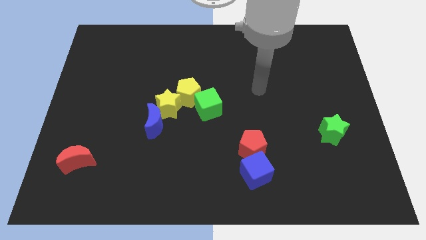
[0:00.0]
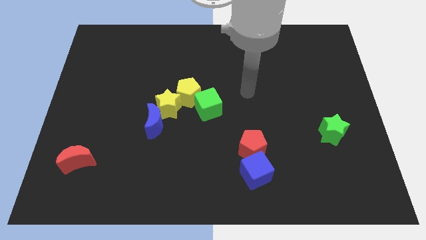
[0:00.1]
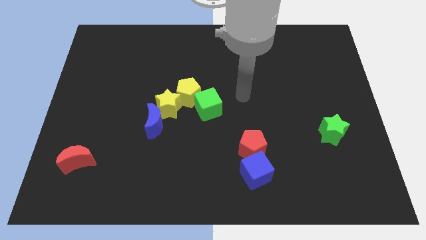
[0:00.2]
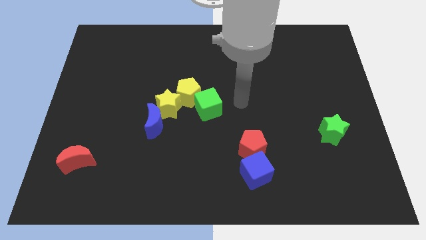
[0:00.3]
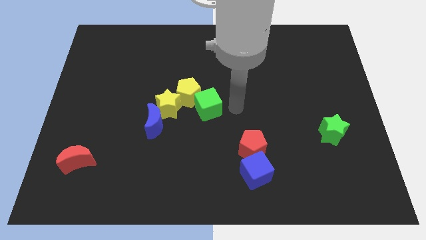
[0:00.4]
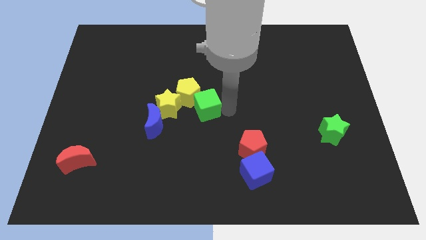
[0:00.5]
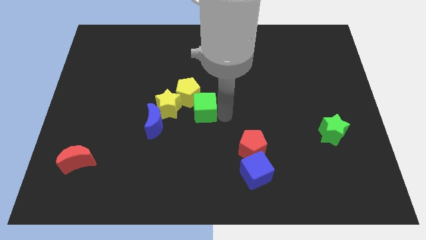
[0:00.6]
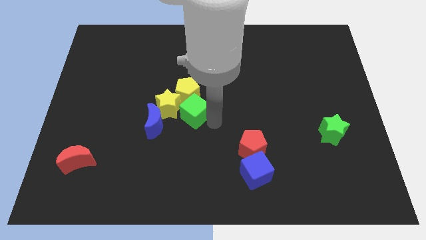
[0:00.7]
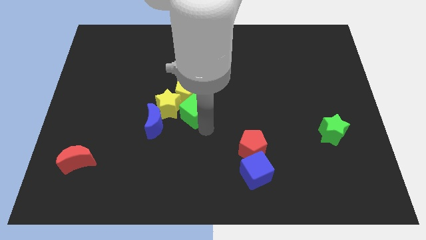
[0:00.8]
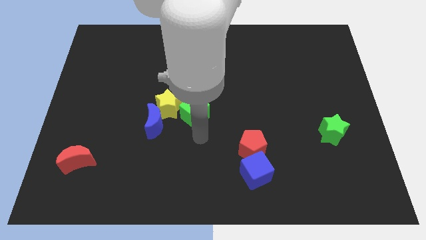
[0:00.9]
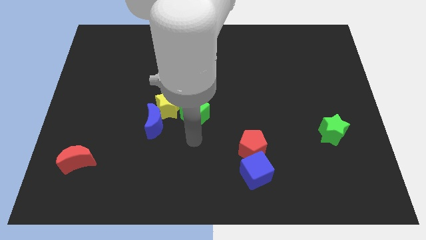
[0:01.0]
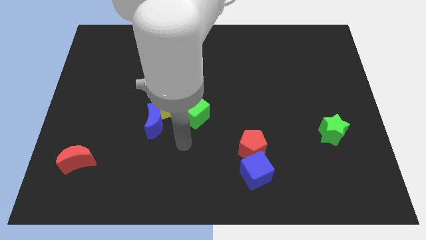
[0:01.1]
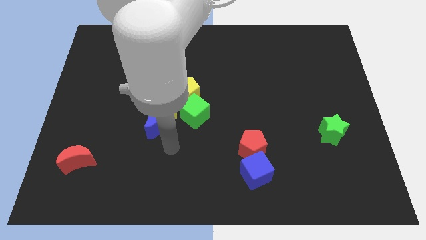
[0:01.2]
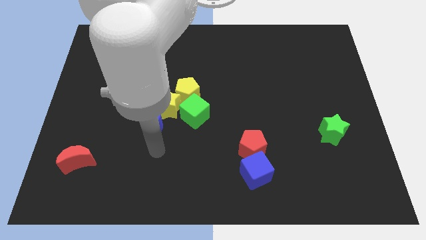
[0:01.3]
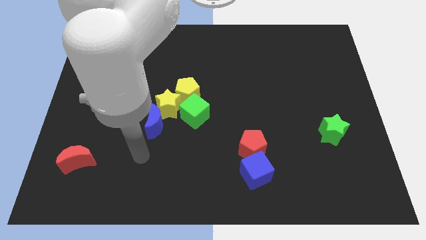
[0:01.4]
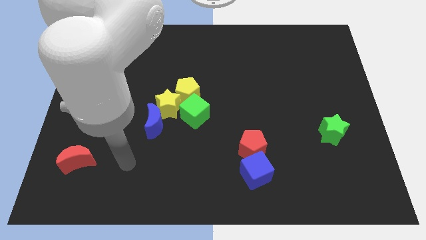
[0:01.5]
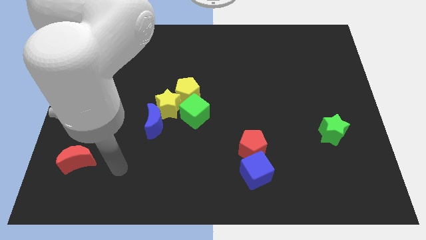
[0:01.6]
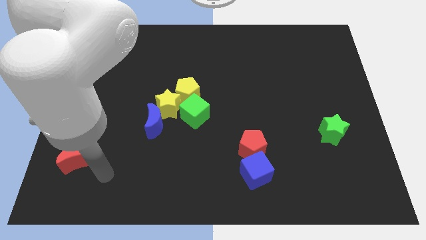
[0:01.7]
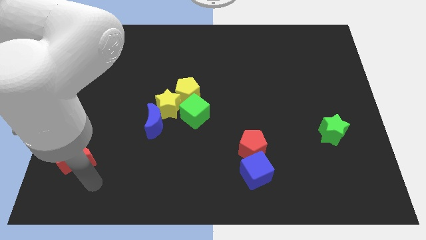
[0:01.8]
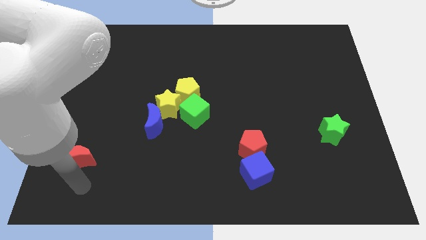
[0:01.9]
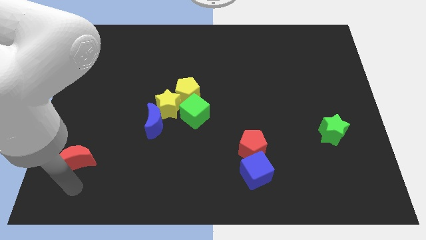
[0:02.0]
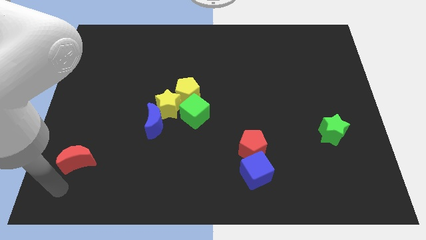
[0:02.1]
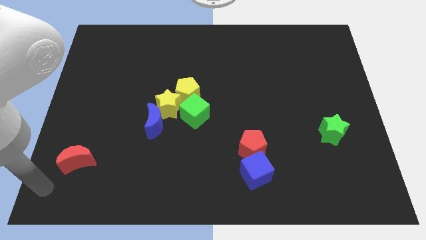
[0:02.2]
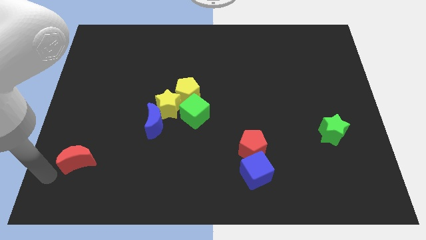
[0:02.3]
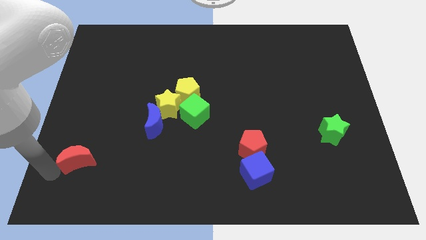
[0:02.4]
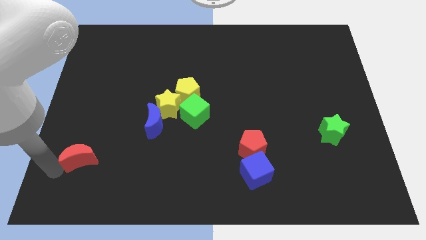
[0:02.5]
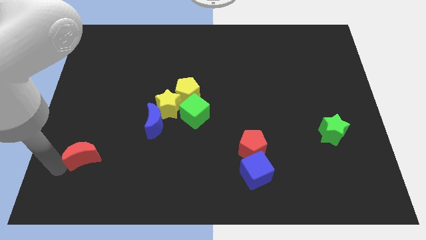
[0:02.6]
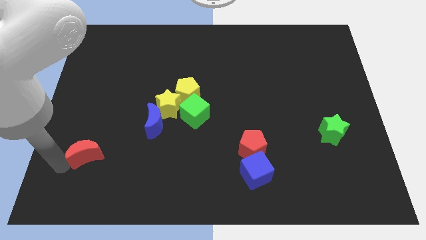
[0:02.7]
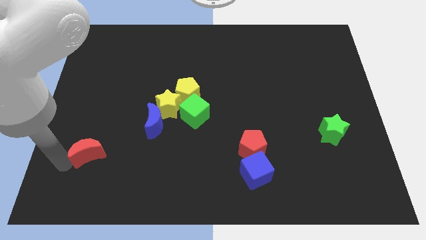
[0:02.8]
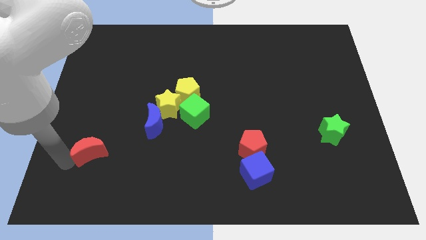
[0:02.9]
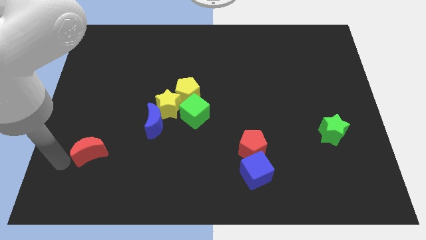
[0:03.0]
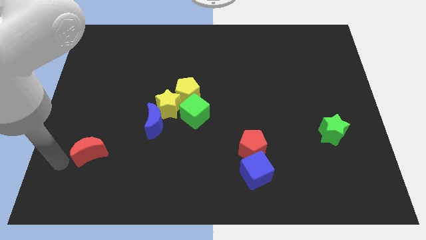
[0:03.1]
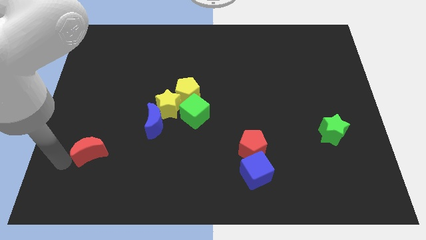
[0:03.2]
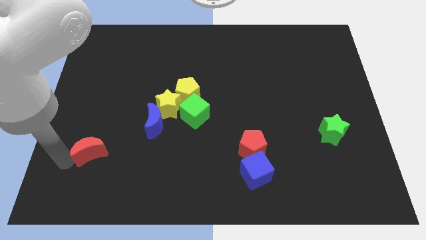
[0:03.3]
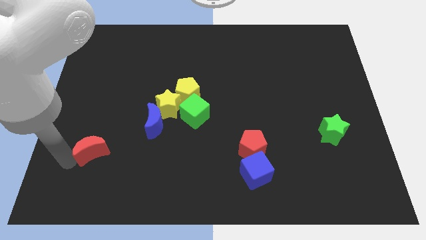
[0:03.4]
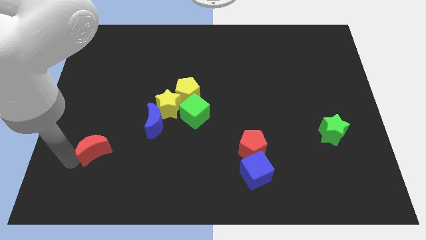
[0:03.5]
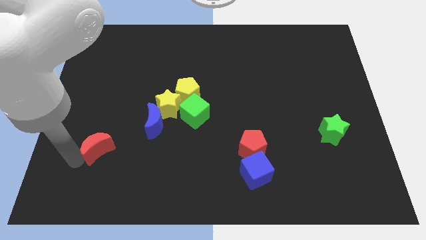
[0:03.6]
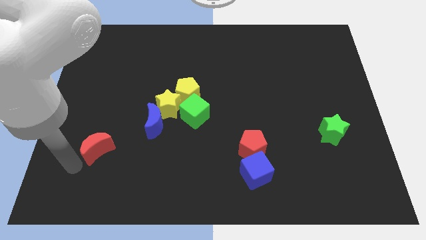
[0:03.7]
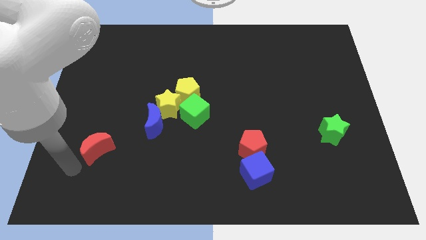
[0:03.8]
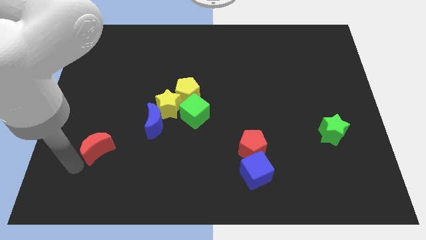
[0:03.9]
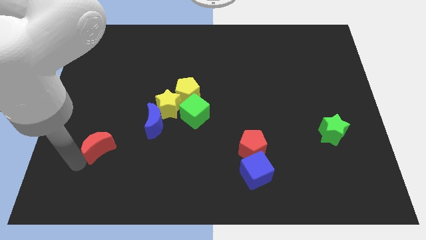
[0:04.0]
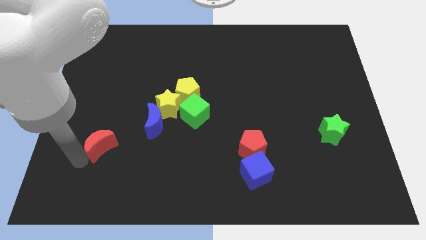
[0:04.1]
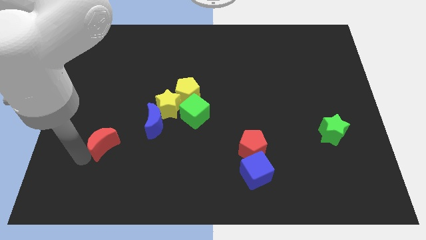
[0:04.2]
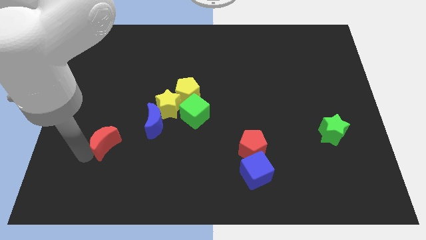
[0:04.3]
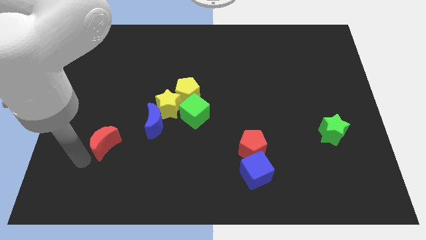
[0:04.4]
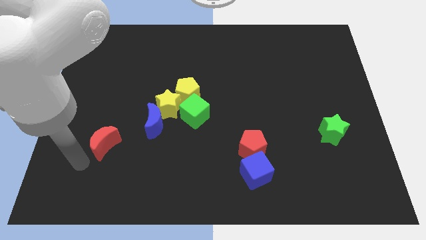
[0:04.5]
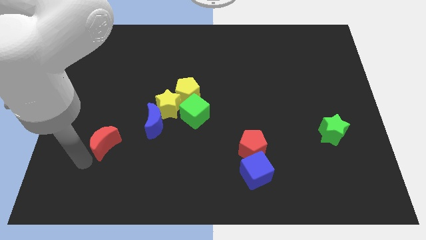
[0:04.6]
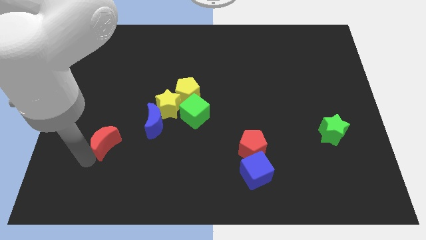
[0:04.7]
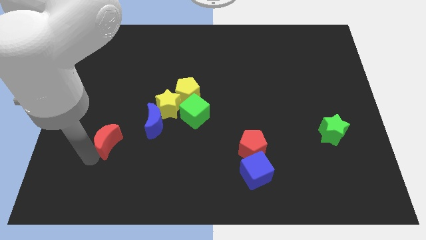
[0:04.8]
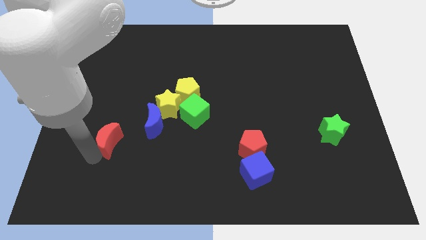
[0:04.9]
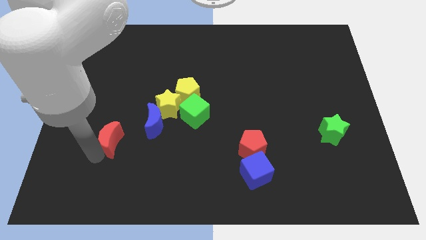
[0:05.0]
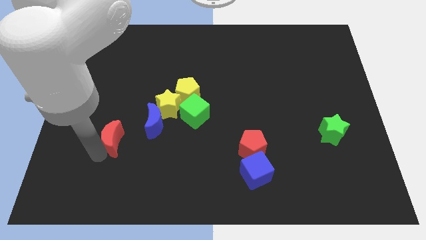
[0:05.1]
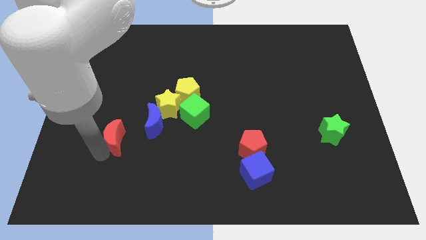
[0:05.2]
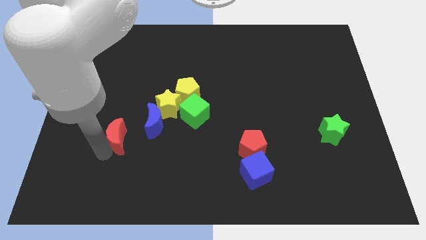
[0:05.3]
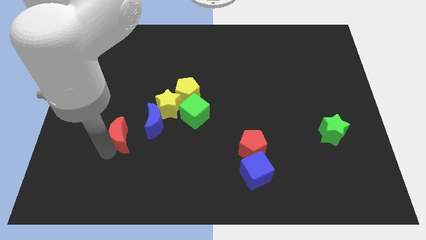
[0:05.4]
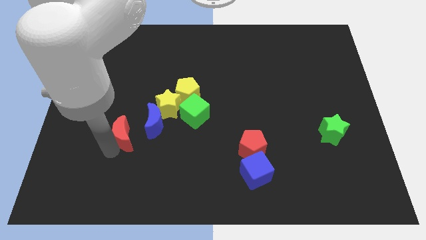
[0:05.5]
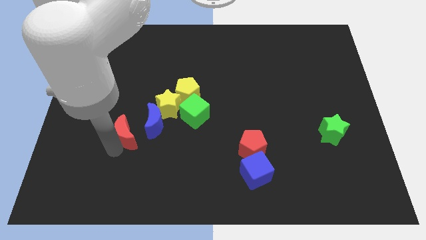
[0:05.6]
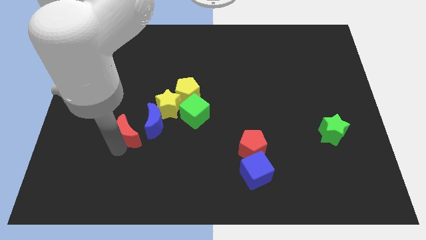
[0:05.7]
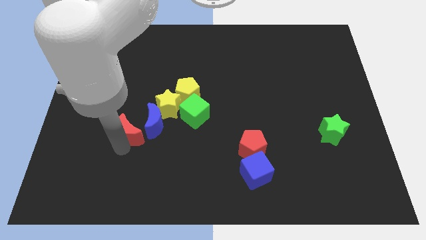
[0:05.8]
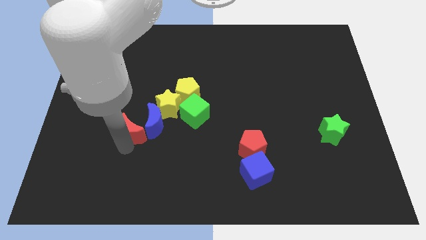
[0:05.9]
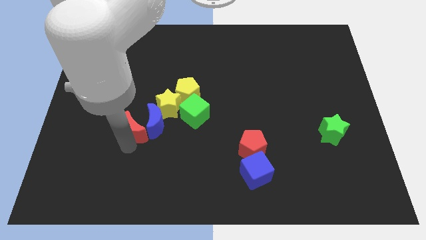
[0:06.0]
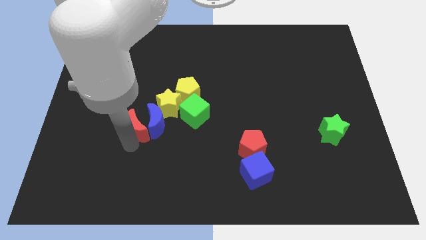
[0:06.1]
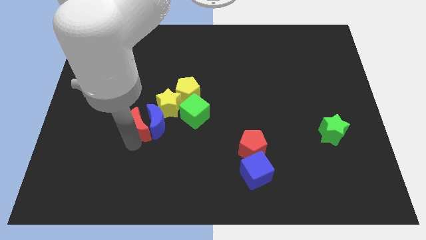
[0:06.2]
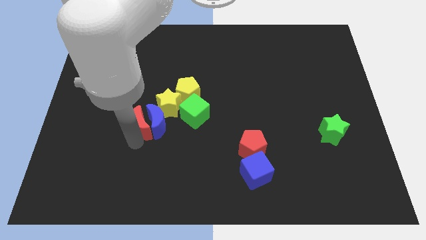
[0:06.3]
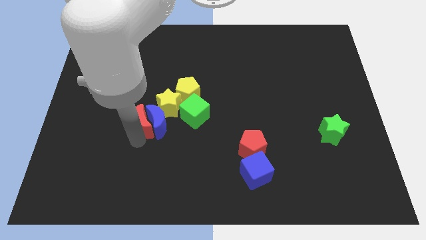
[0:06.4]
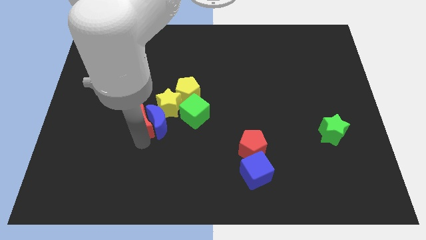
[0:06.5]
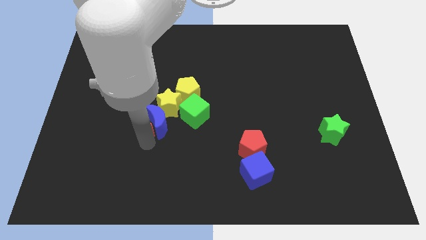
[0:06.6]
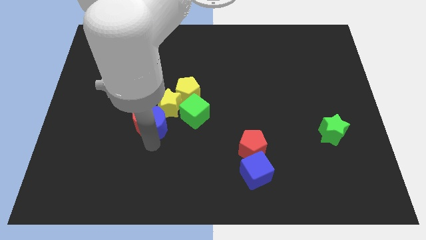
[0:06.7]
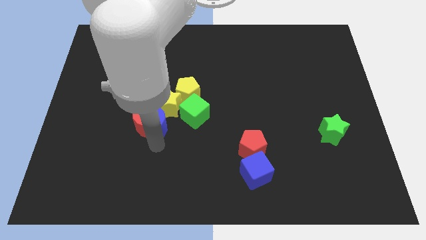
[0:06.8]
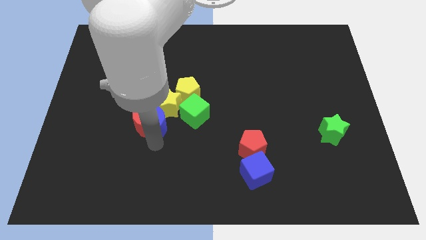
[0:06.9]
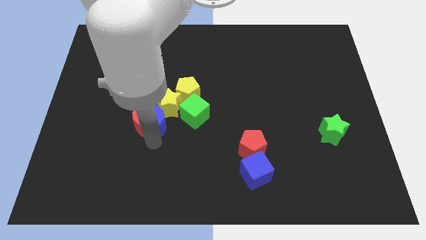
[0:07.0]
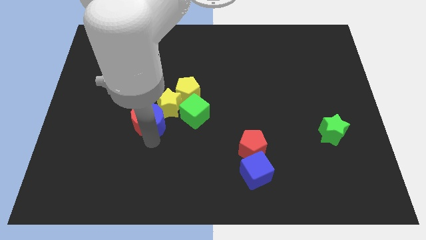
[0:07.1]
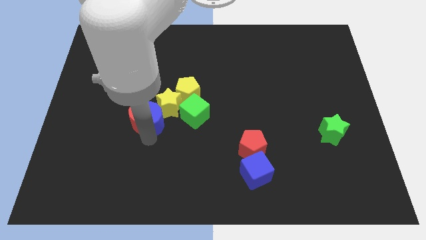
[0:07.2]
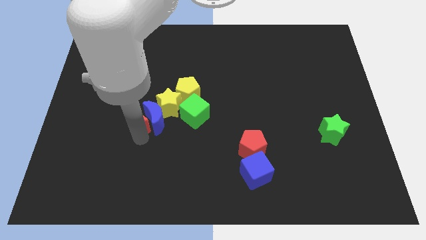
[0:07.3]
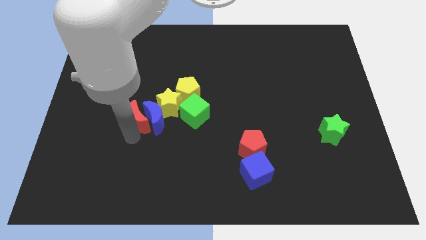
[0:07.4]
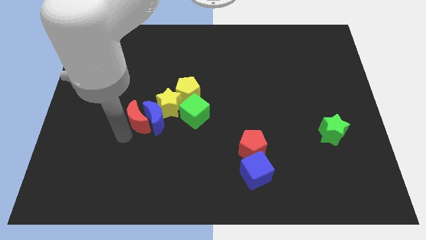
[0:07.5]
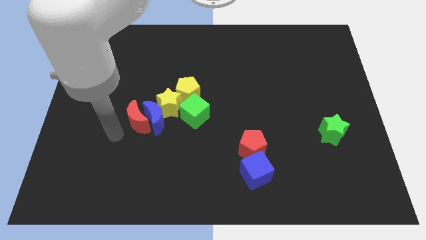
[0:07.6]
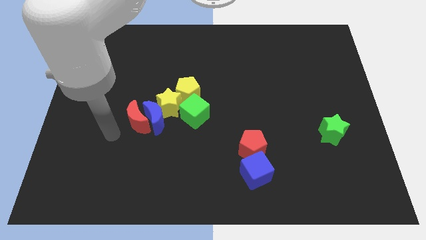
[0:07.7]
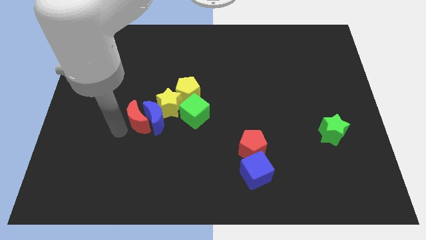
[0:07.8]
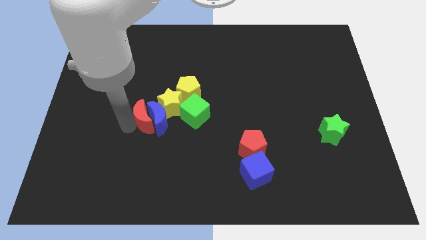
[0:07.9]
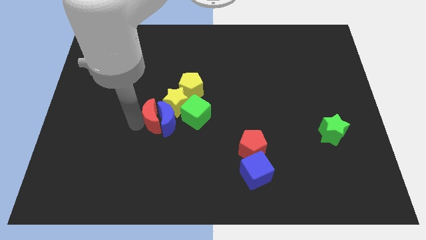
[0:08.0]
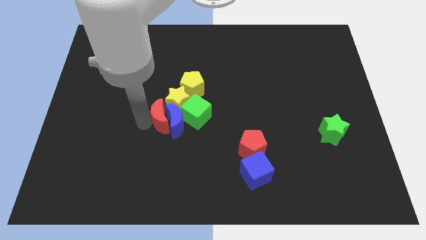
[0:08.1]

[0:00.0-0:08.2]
move the red moon close to the yellow star
